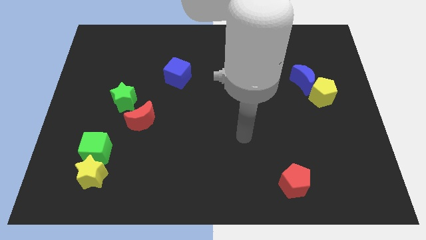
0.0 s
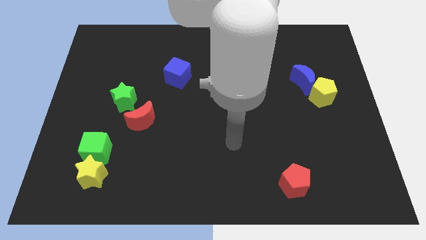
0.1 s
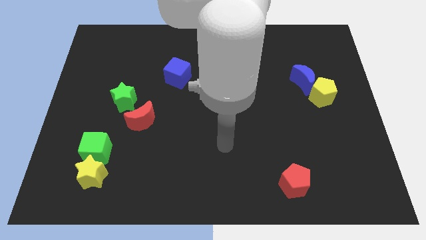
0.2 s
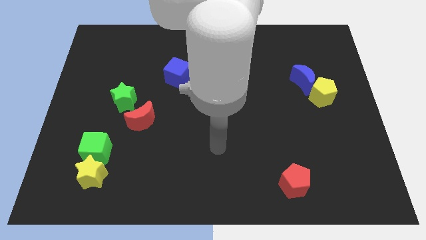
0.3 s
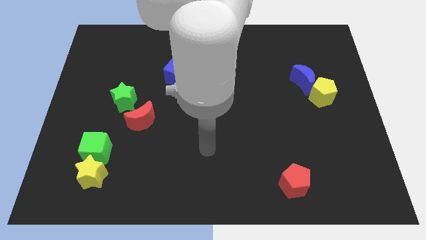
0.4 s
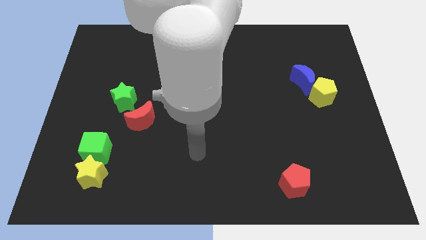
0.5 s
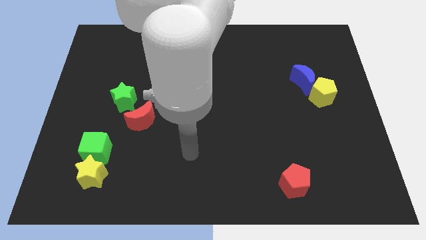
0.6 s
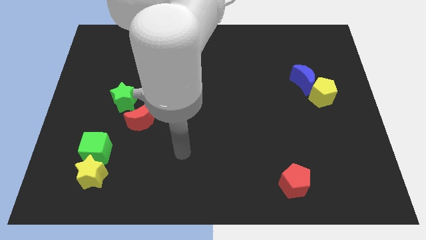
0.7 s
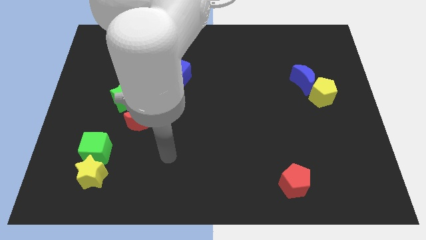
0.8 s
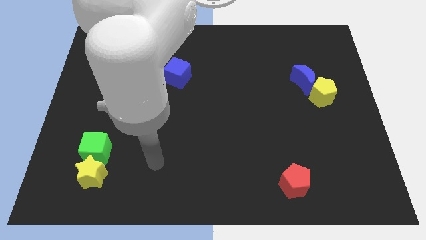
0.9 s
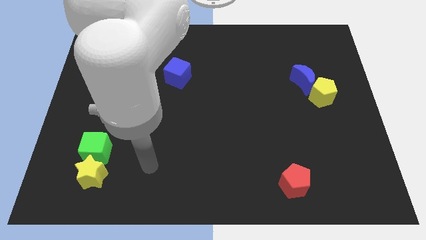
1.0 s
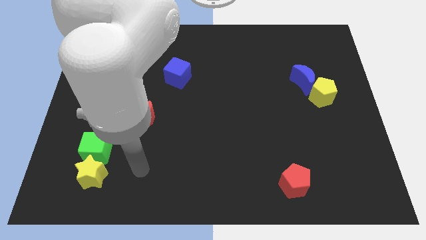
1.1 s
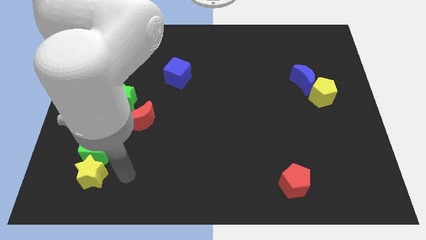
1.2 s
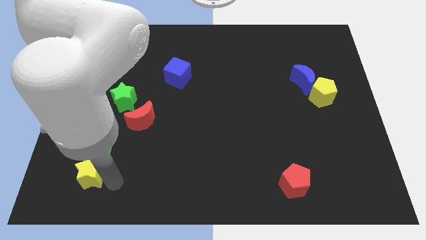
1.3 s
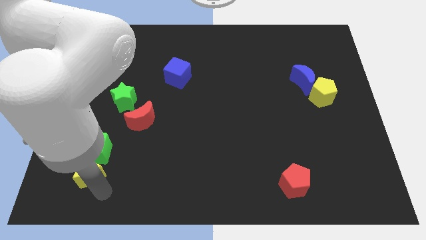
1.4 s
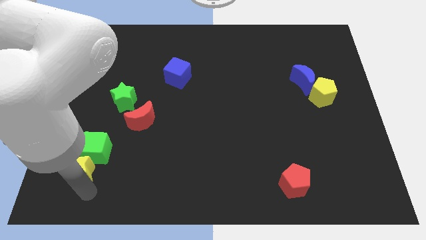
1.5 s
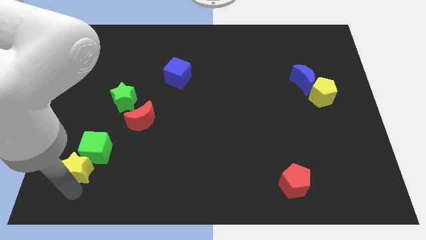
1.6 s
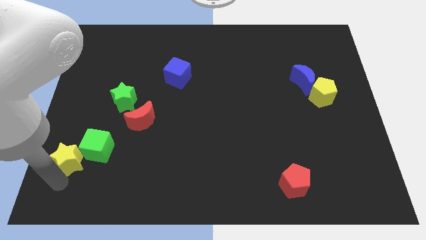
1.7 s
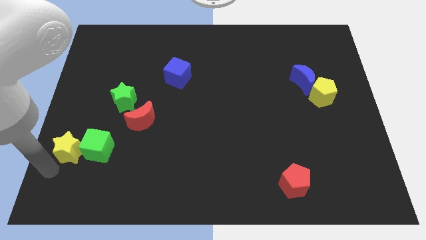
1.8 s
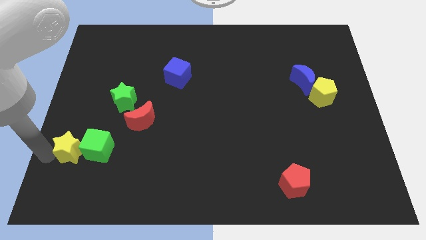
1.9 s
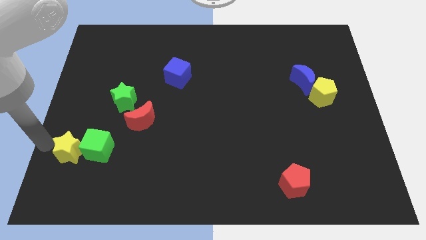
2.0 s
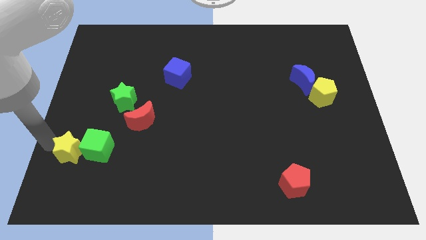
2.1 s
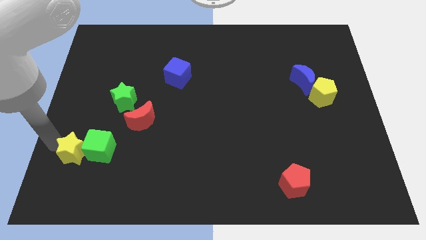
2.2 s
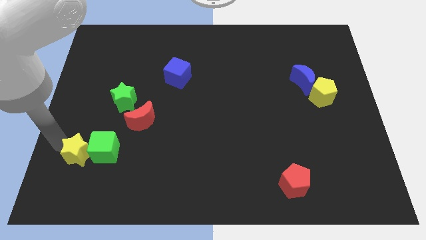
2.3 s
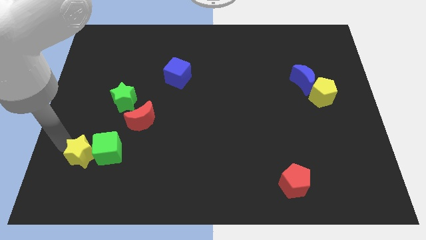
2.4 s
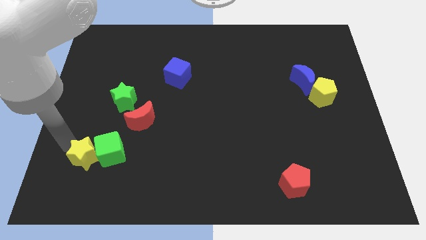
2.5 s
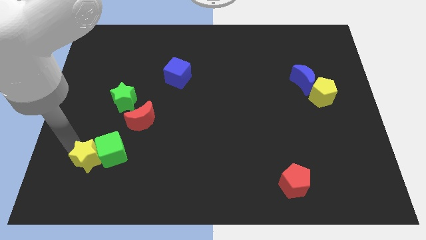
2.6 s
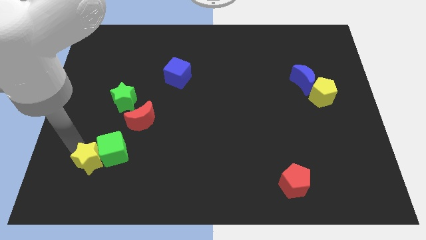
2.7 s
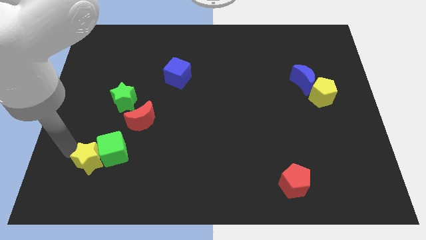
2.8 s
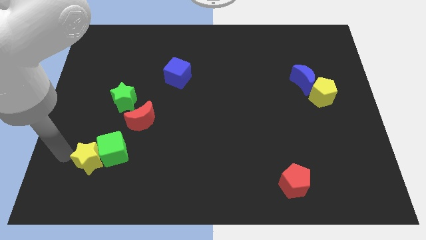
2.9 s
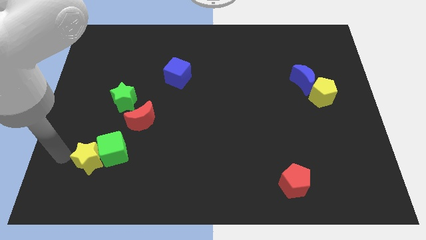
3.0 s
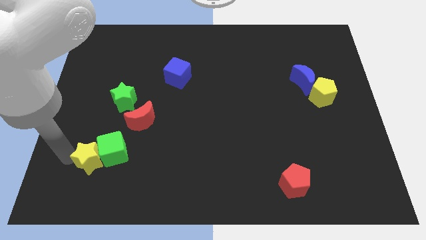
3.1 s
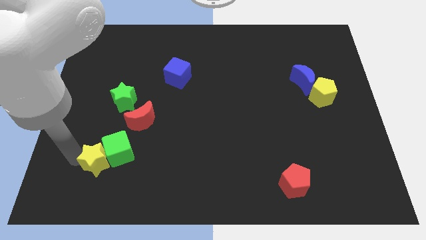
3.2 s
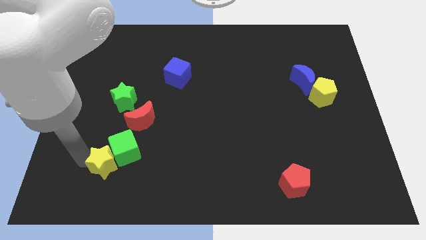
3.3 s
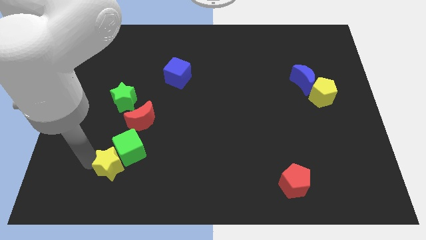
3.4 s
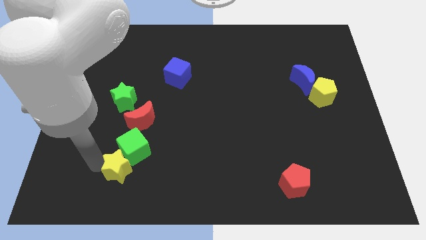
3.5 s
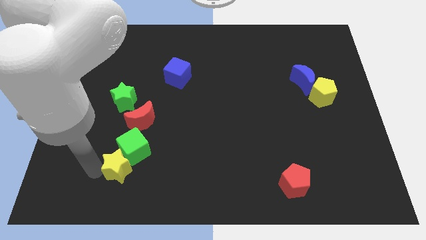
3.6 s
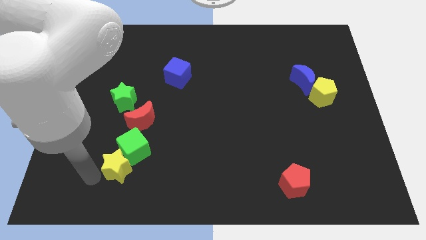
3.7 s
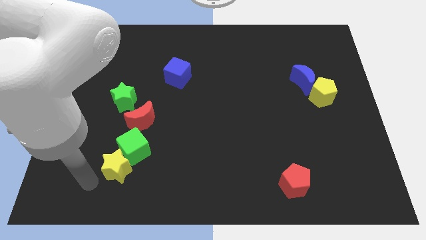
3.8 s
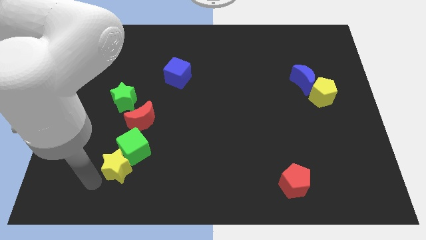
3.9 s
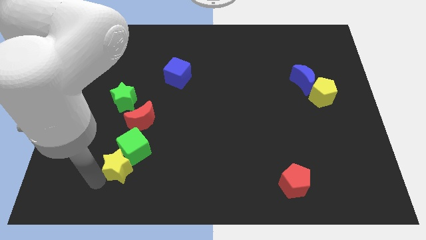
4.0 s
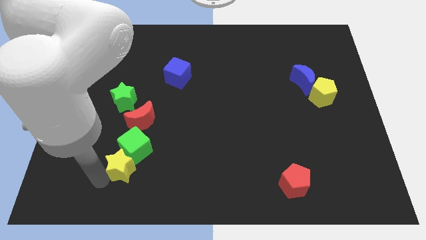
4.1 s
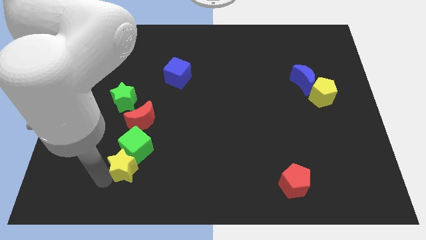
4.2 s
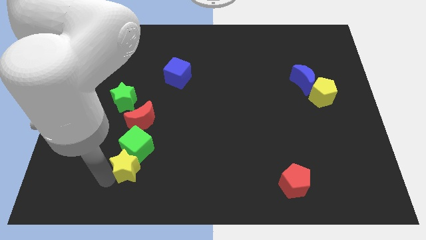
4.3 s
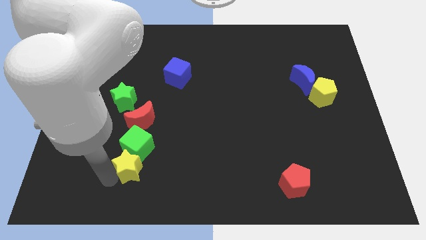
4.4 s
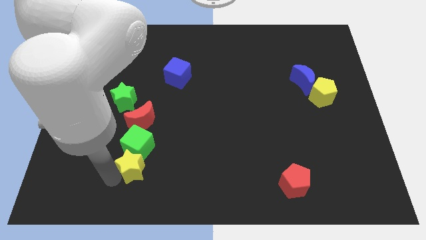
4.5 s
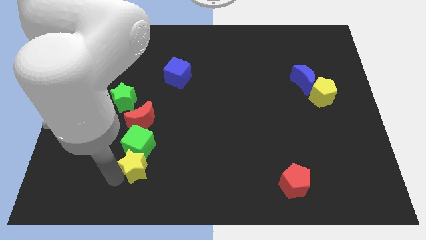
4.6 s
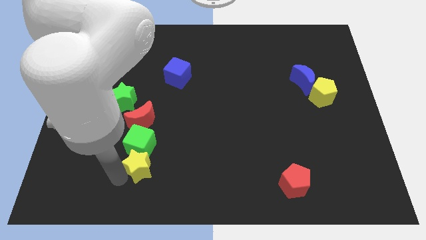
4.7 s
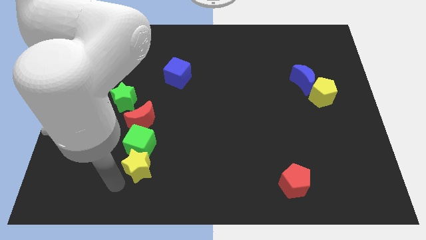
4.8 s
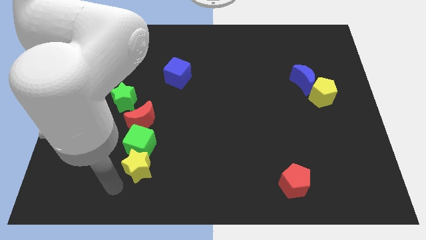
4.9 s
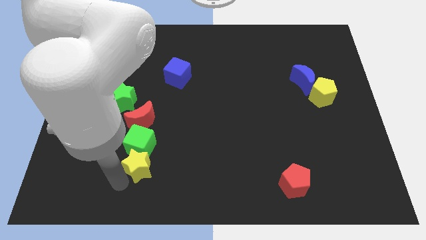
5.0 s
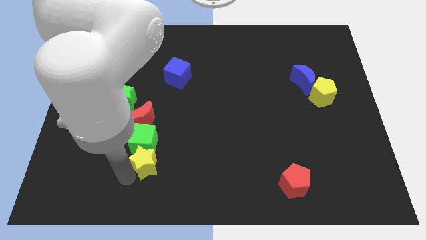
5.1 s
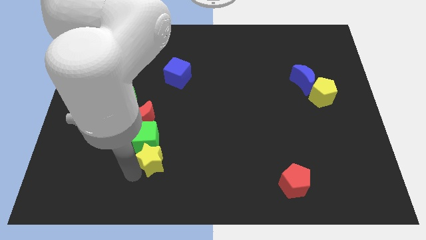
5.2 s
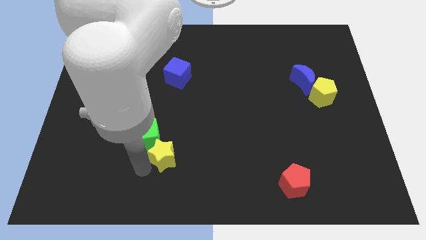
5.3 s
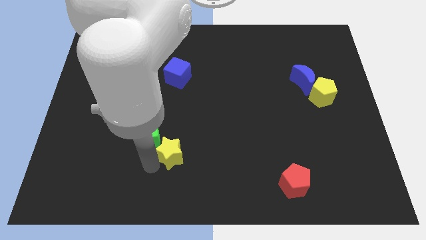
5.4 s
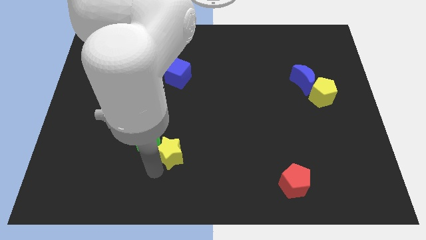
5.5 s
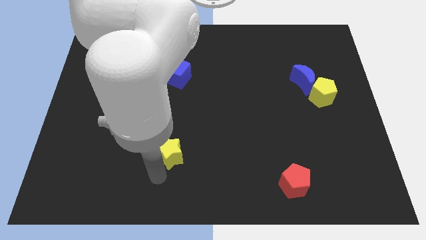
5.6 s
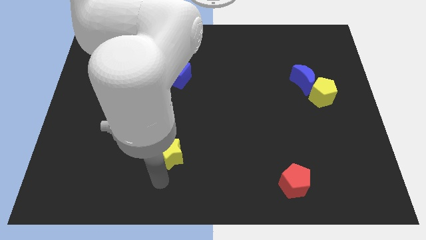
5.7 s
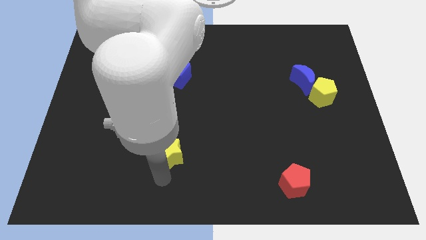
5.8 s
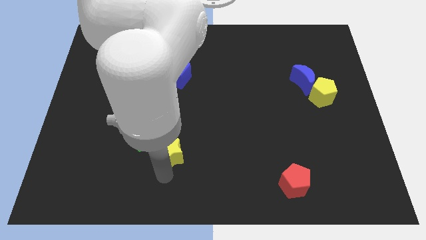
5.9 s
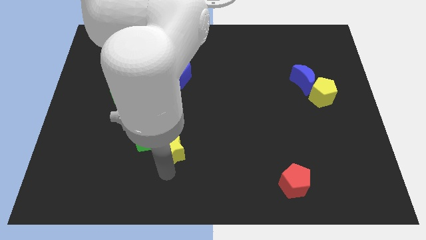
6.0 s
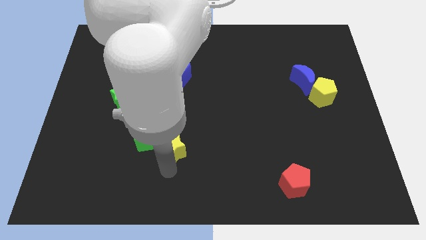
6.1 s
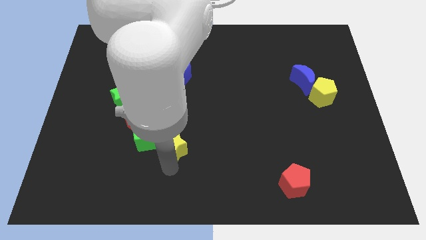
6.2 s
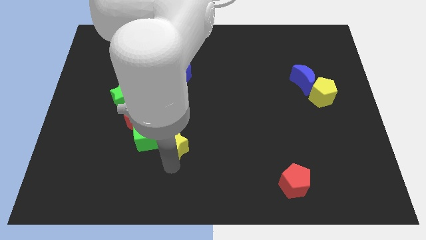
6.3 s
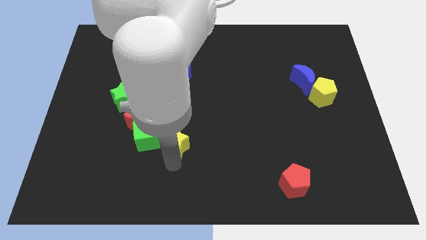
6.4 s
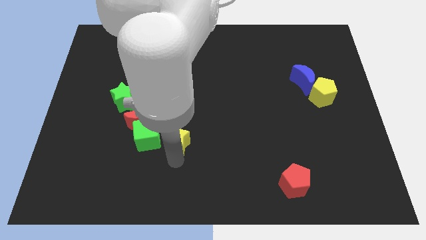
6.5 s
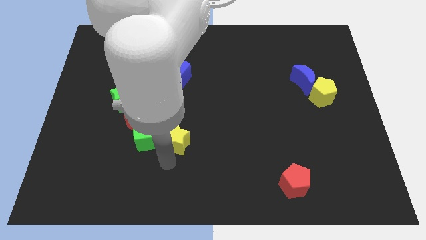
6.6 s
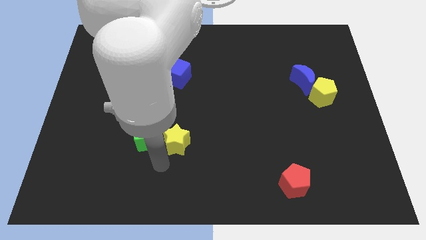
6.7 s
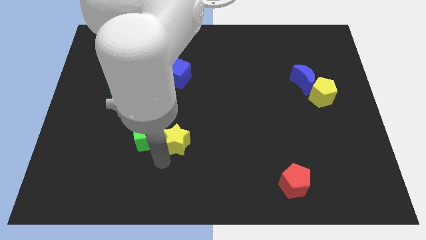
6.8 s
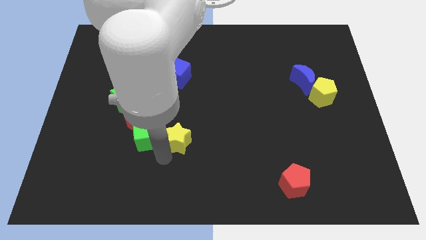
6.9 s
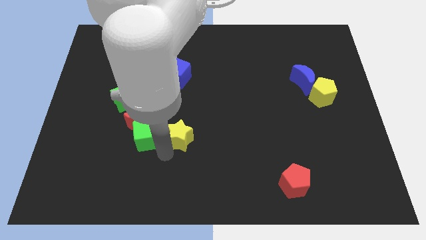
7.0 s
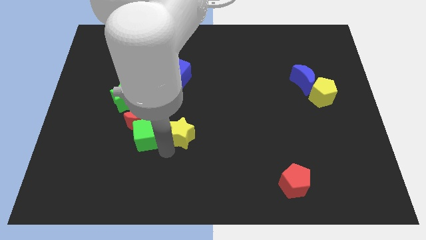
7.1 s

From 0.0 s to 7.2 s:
push the yellow star to the center of the board
